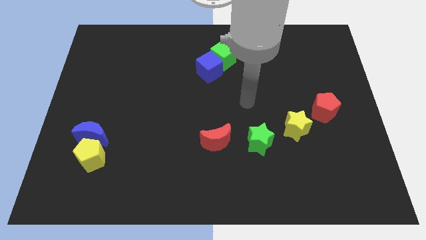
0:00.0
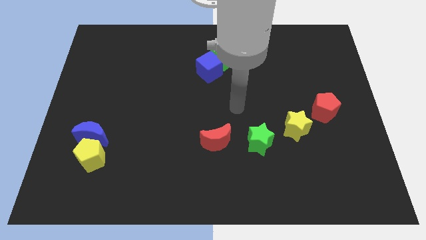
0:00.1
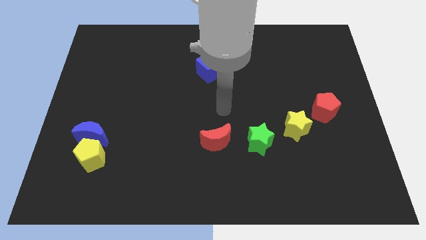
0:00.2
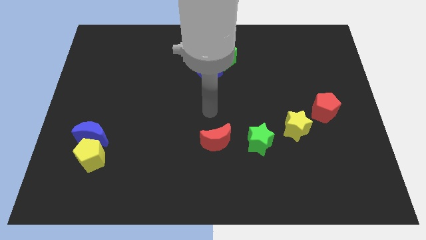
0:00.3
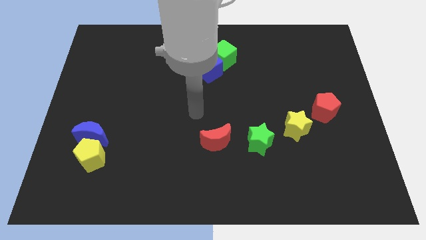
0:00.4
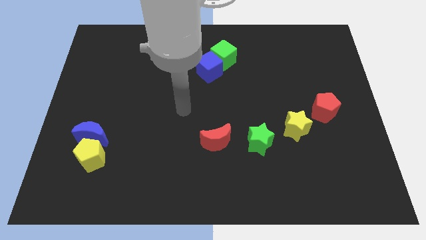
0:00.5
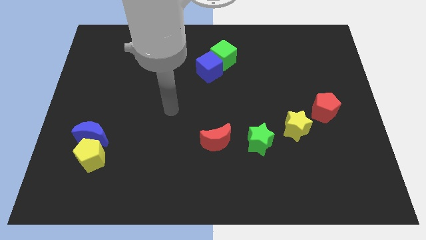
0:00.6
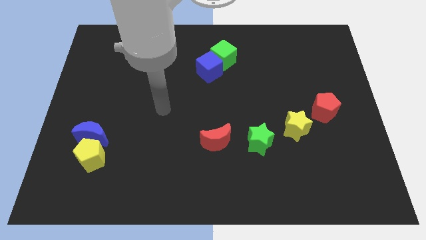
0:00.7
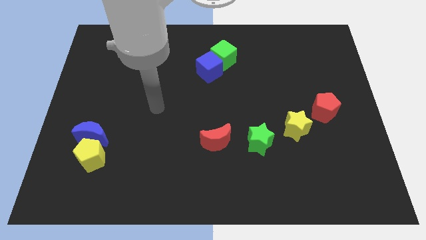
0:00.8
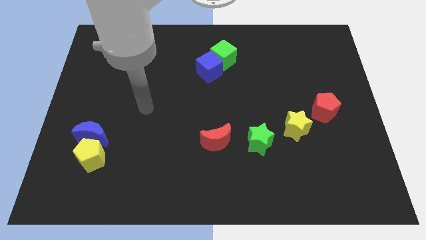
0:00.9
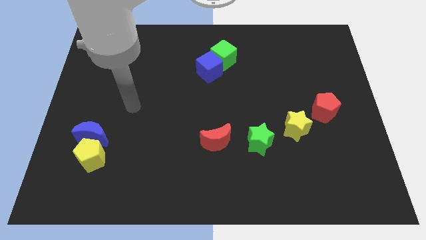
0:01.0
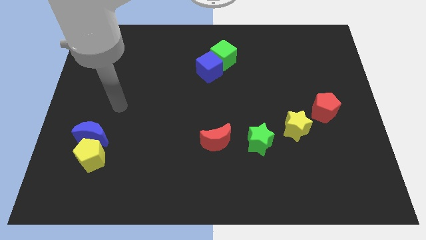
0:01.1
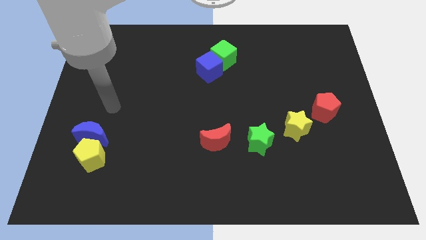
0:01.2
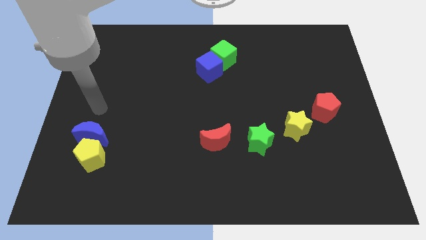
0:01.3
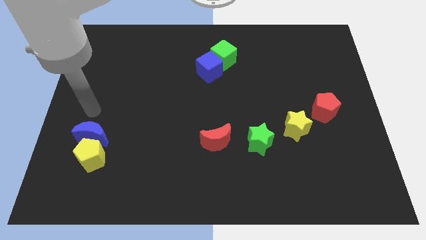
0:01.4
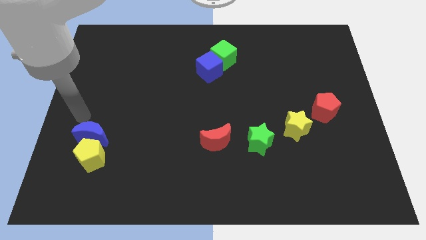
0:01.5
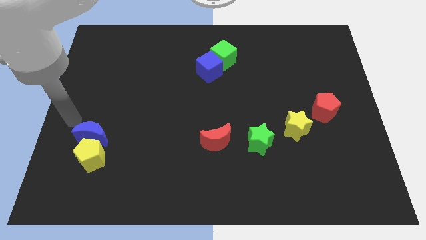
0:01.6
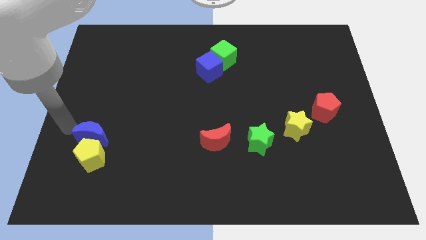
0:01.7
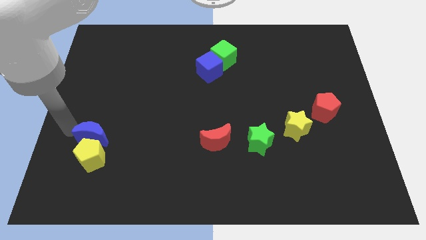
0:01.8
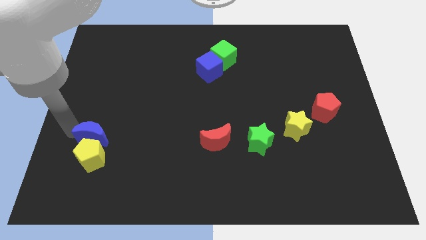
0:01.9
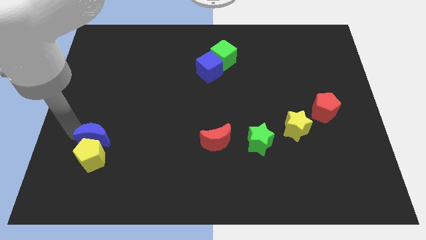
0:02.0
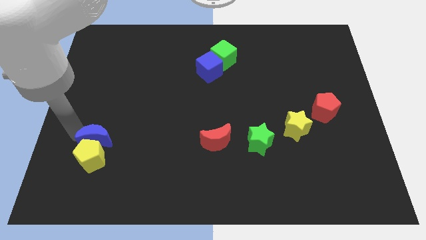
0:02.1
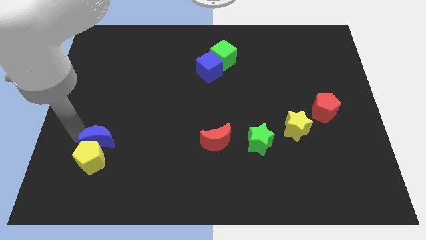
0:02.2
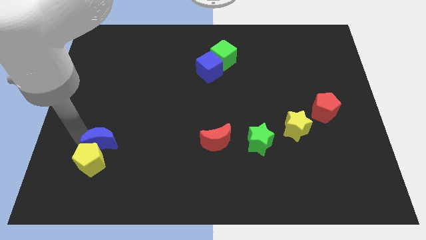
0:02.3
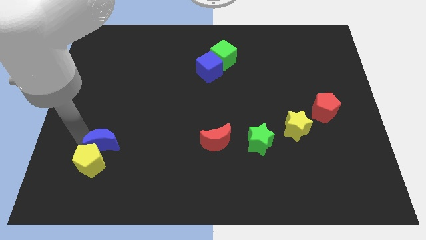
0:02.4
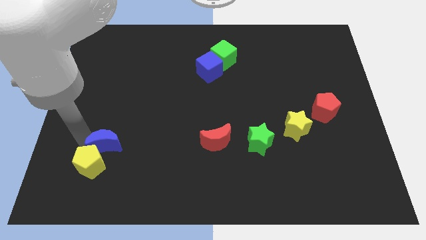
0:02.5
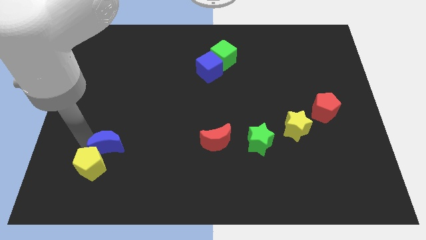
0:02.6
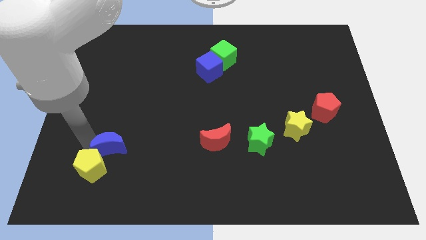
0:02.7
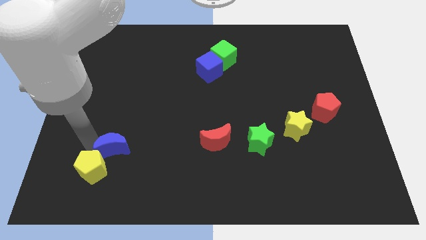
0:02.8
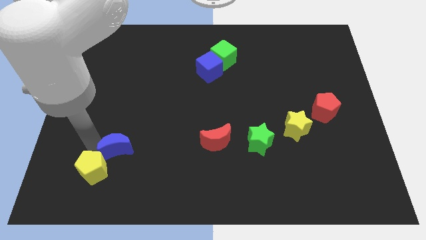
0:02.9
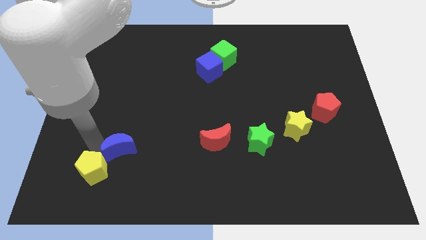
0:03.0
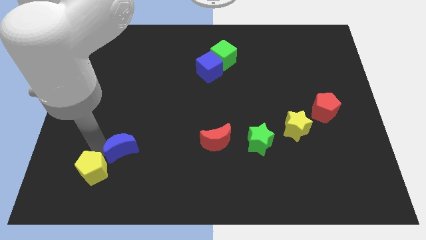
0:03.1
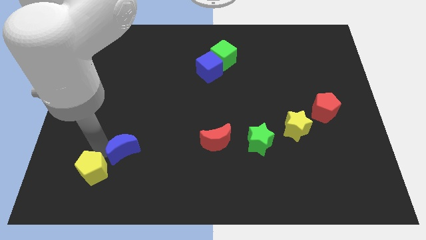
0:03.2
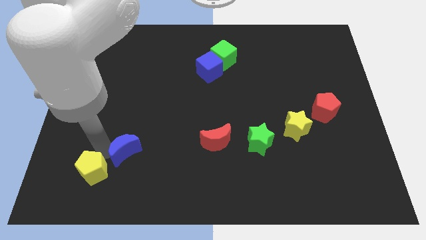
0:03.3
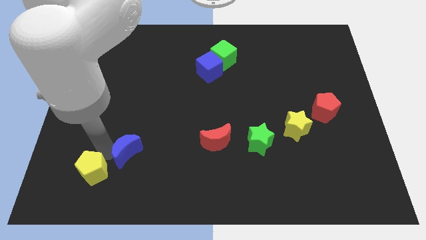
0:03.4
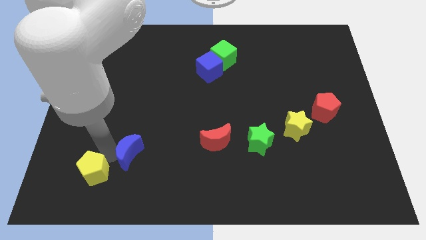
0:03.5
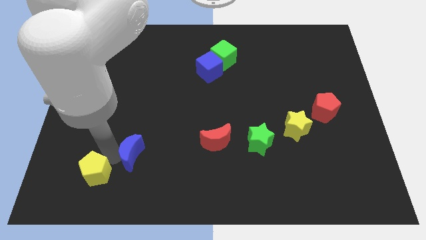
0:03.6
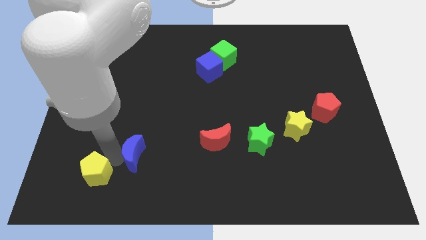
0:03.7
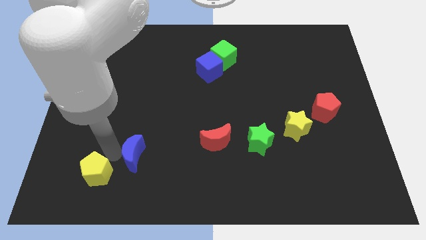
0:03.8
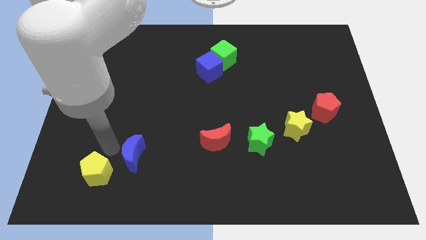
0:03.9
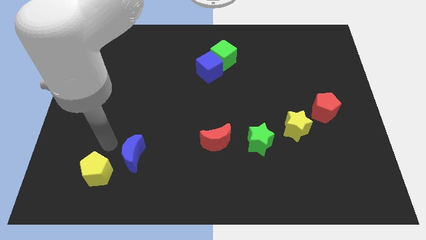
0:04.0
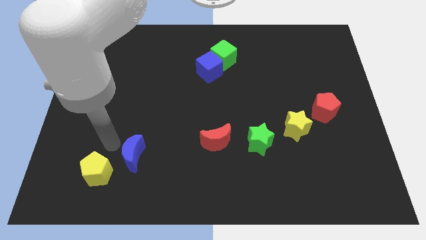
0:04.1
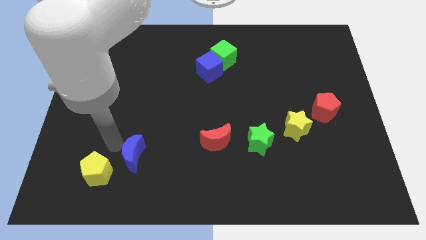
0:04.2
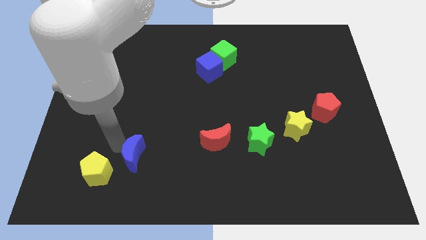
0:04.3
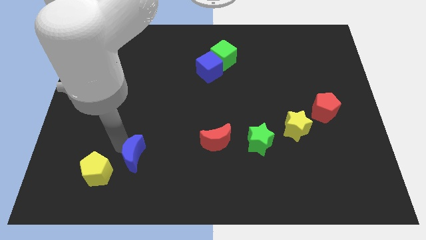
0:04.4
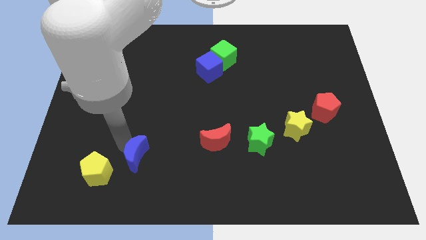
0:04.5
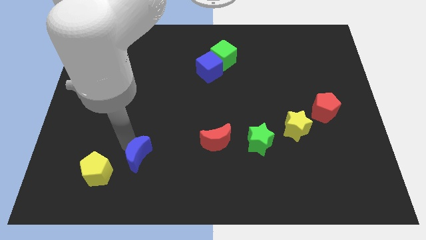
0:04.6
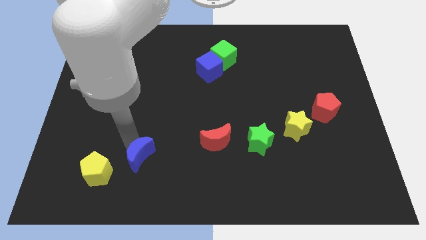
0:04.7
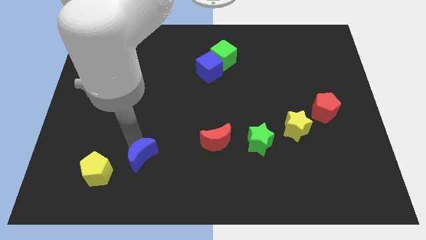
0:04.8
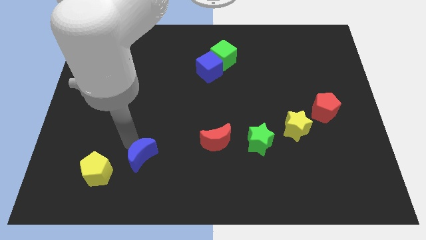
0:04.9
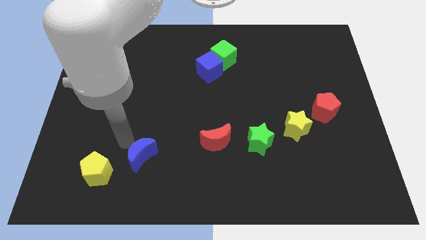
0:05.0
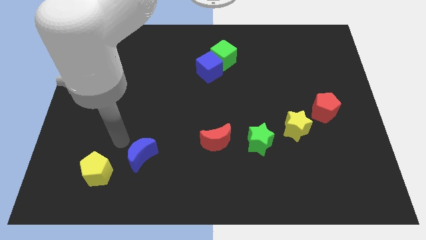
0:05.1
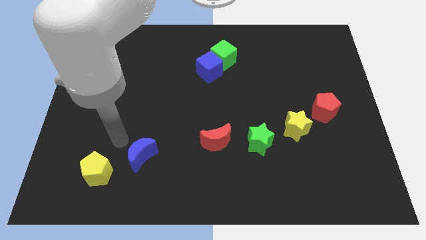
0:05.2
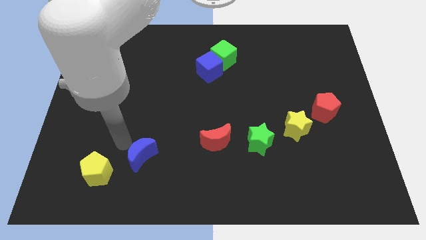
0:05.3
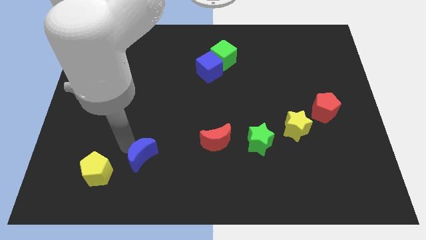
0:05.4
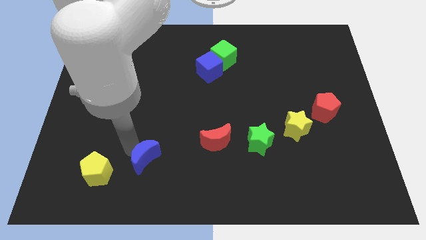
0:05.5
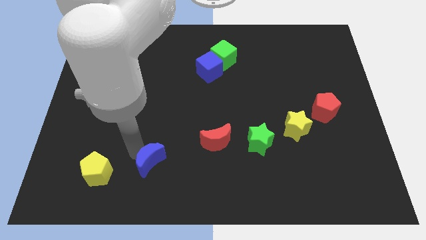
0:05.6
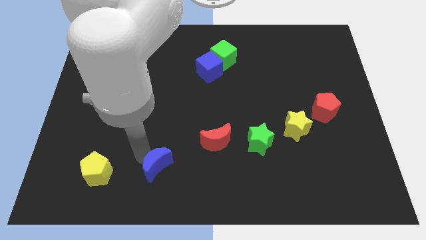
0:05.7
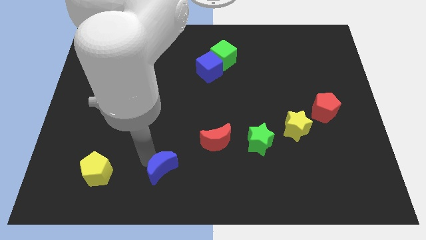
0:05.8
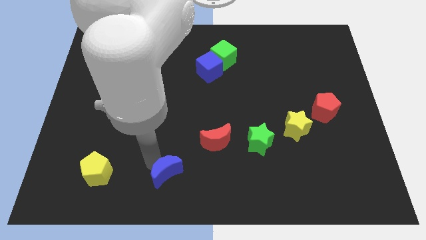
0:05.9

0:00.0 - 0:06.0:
move the blue moon to the bottom side

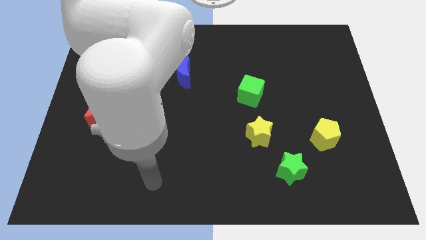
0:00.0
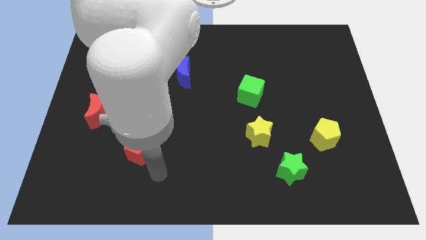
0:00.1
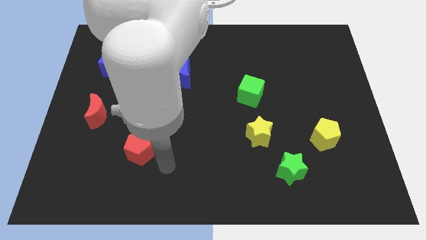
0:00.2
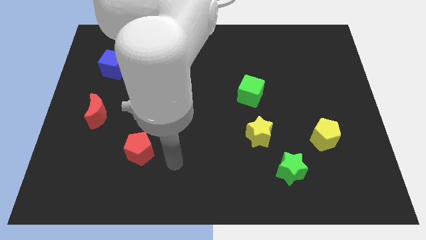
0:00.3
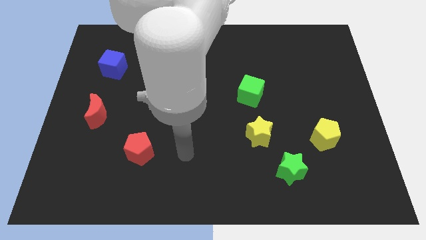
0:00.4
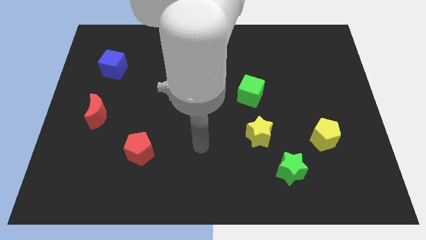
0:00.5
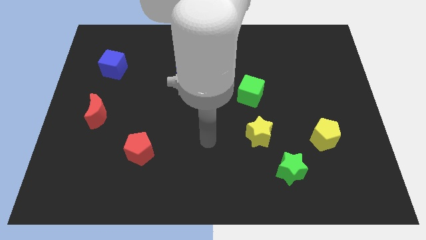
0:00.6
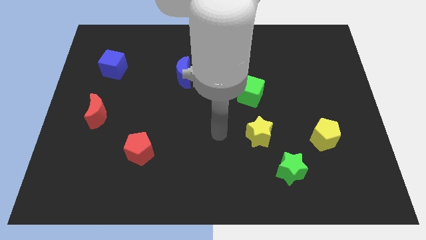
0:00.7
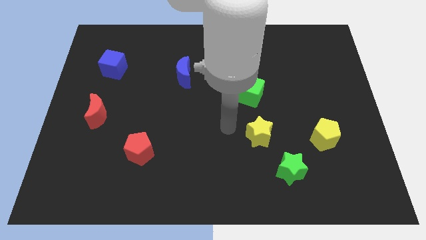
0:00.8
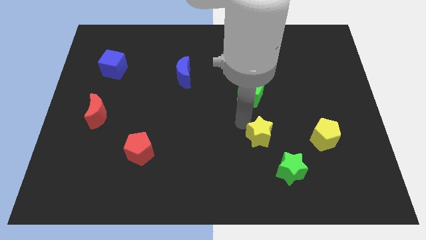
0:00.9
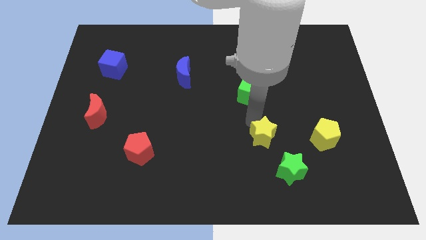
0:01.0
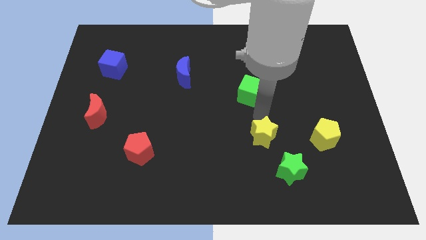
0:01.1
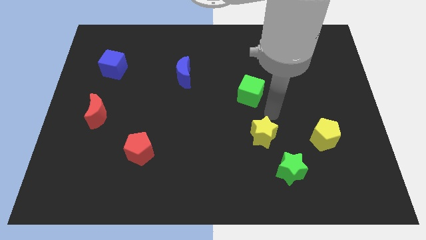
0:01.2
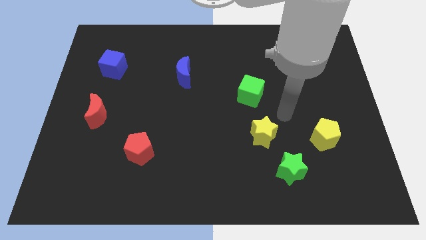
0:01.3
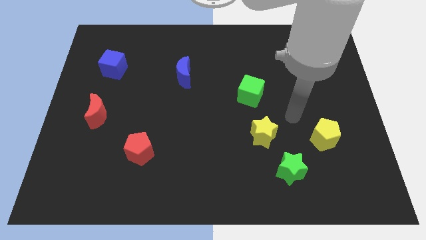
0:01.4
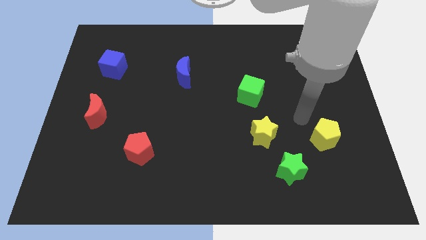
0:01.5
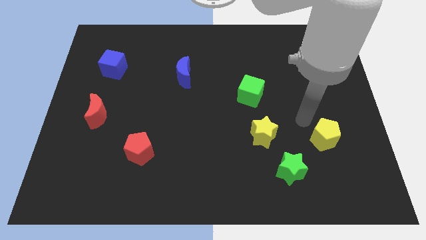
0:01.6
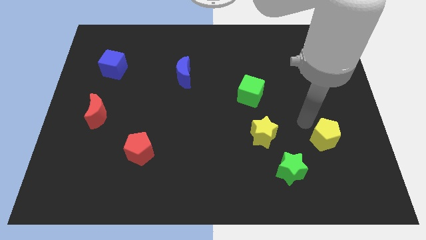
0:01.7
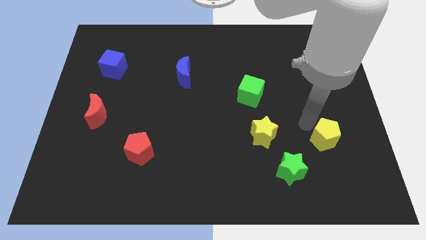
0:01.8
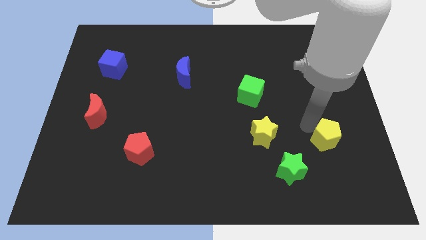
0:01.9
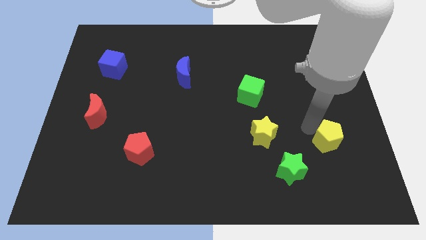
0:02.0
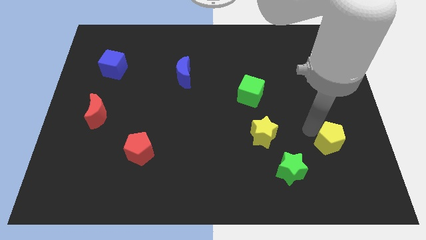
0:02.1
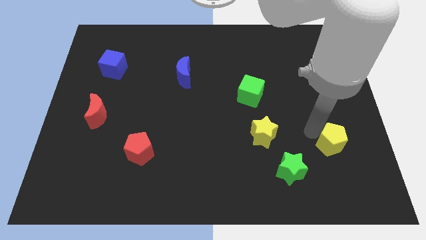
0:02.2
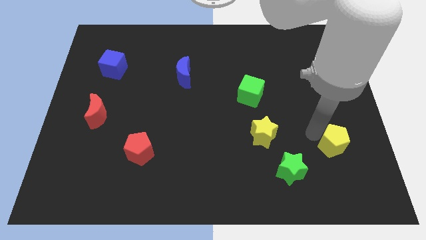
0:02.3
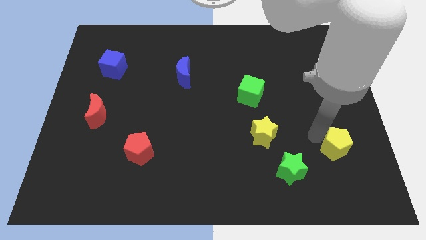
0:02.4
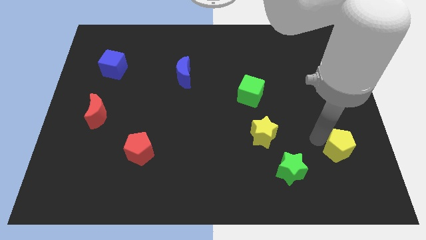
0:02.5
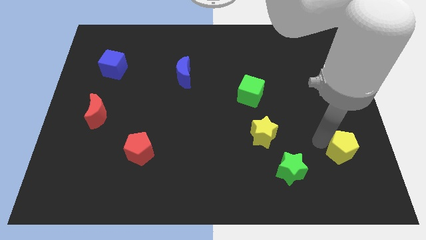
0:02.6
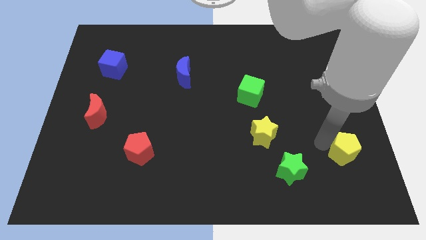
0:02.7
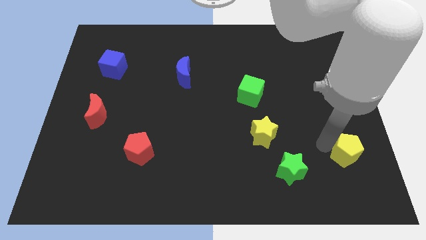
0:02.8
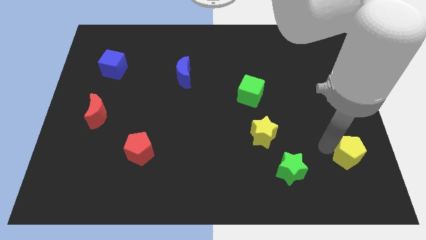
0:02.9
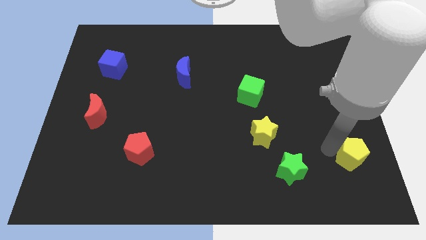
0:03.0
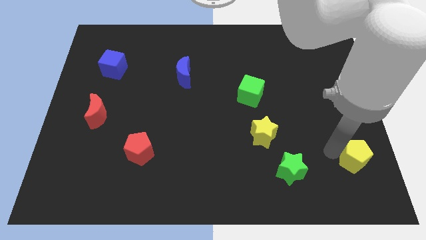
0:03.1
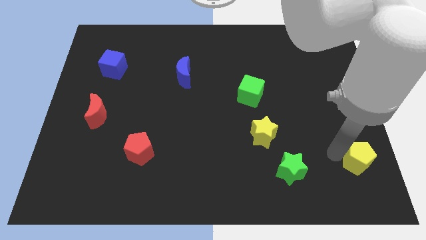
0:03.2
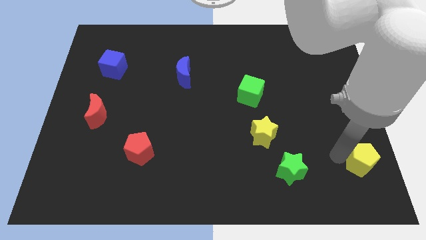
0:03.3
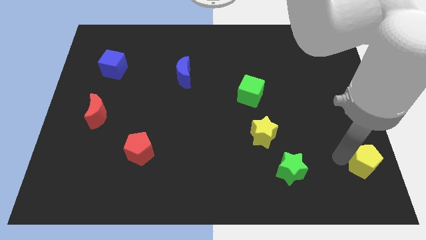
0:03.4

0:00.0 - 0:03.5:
move the yellow pentagon to the bottom right of the board
